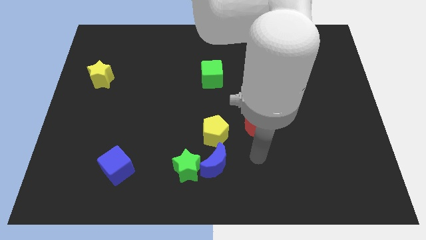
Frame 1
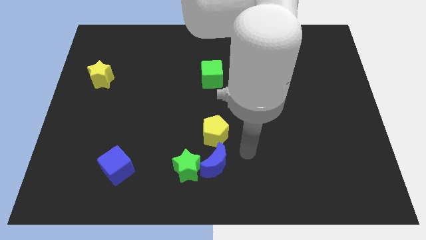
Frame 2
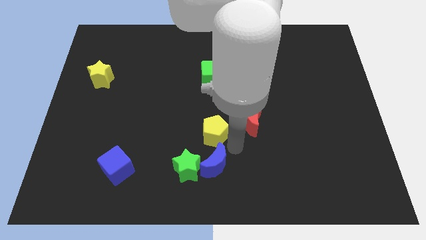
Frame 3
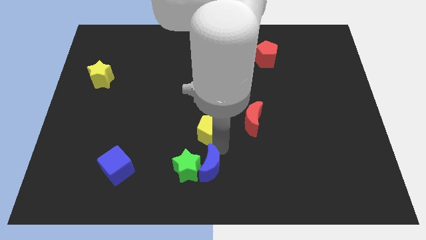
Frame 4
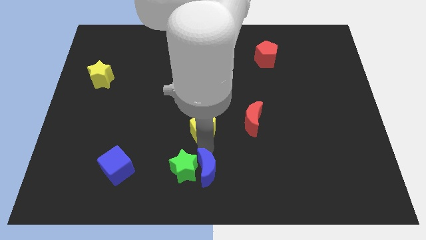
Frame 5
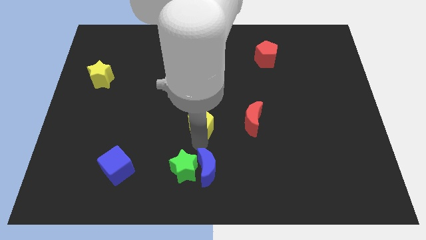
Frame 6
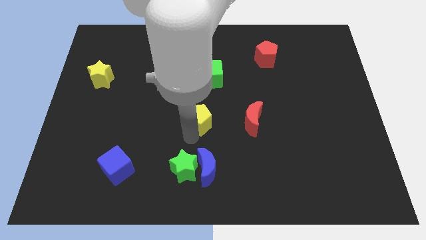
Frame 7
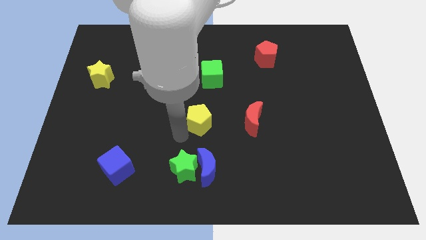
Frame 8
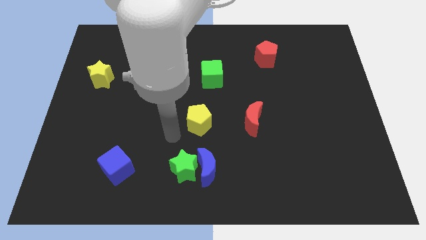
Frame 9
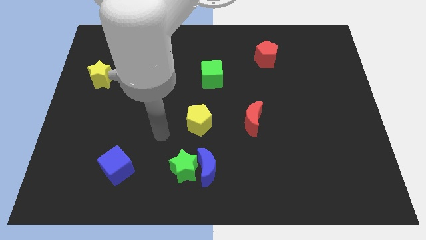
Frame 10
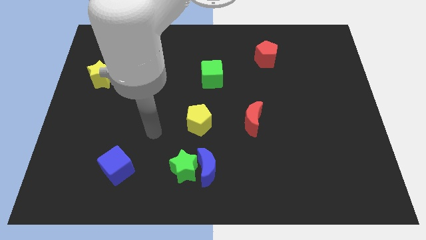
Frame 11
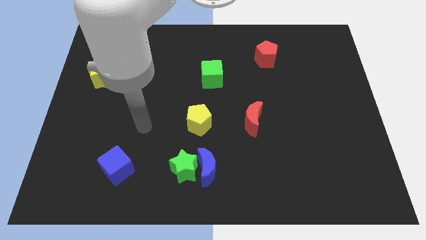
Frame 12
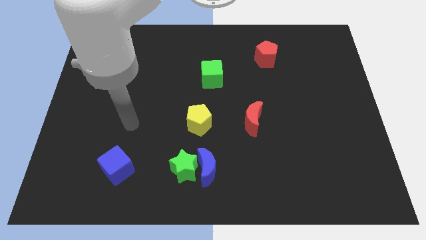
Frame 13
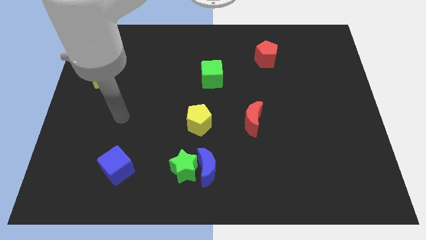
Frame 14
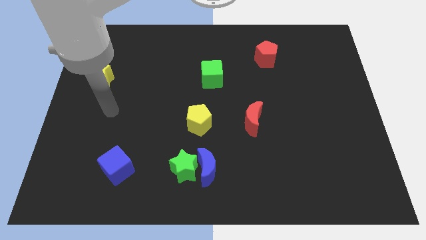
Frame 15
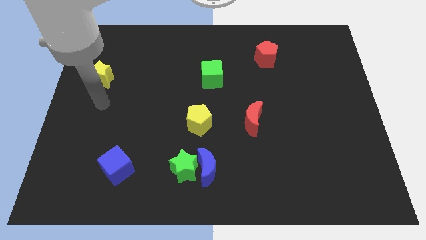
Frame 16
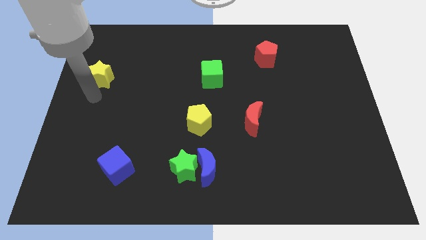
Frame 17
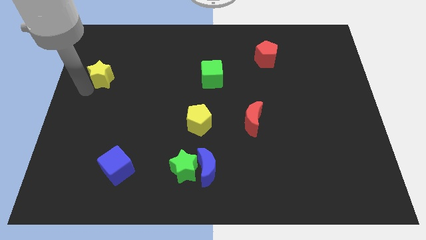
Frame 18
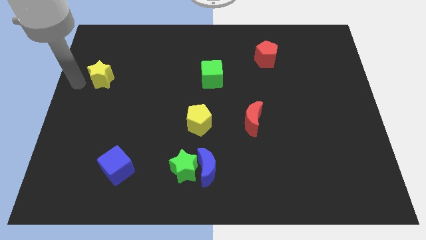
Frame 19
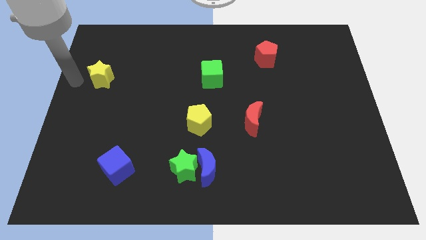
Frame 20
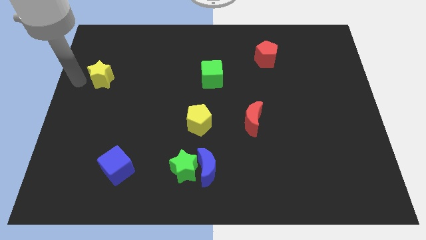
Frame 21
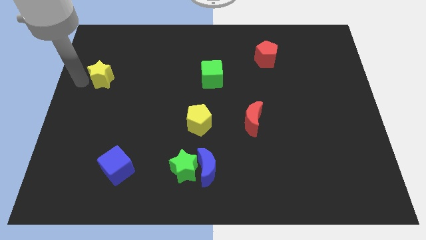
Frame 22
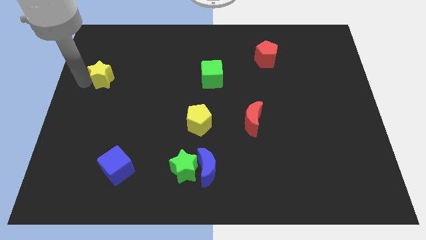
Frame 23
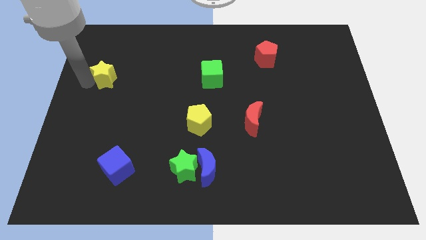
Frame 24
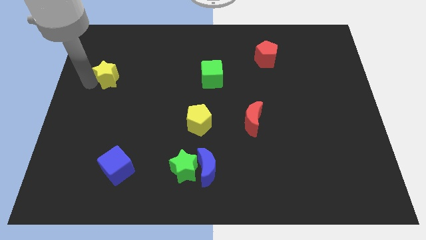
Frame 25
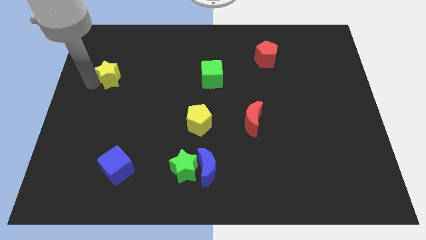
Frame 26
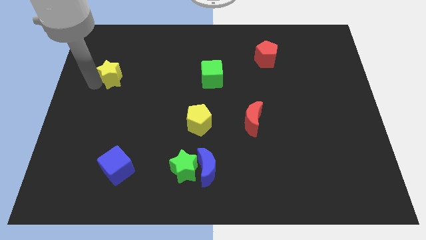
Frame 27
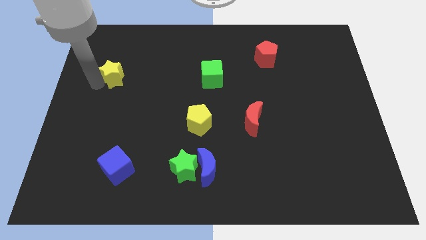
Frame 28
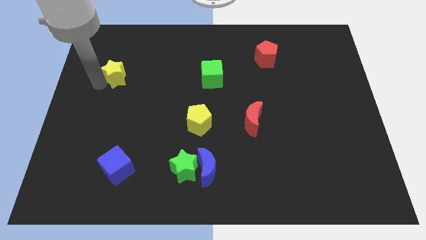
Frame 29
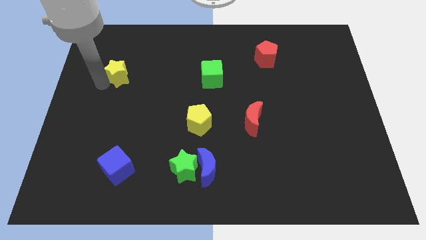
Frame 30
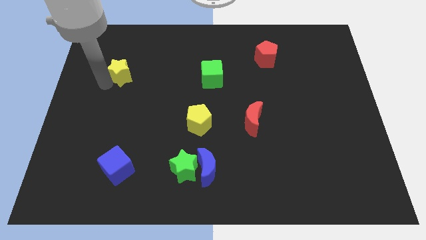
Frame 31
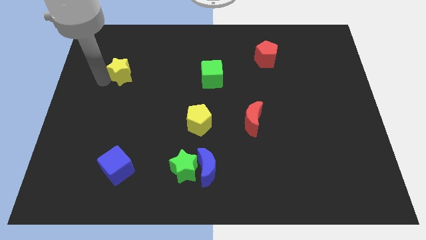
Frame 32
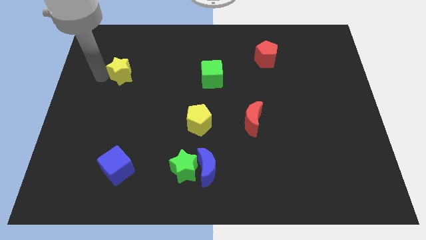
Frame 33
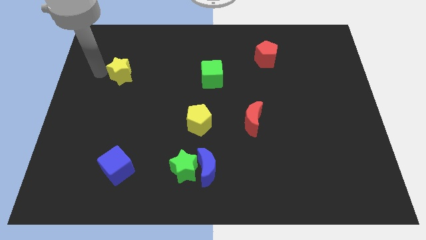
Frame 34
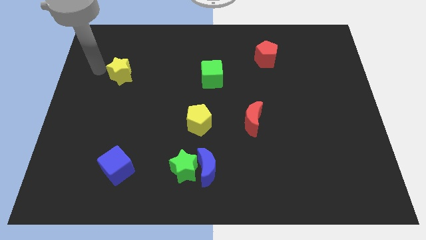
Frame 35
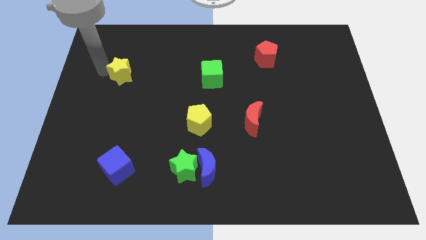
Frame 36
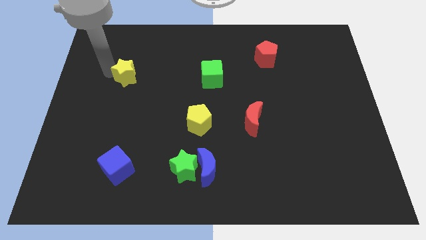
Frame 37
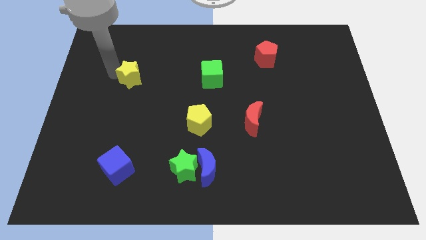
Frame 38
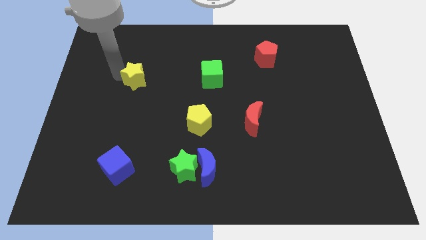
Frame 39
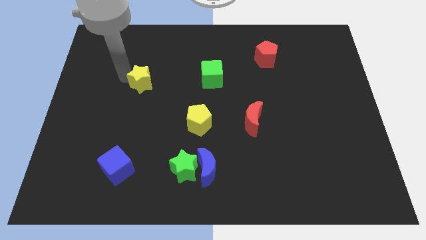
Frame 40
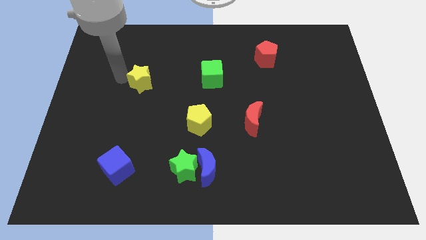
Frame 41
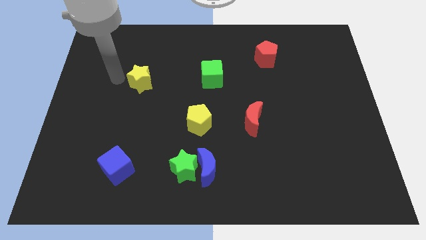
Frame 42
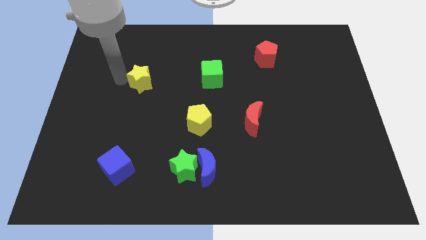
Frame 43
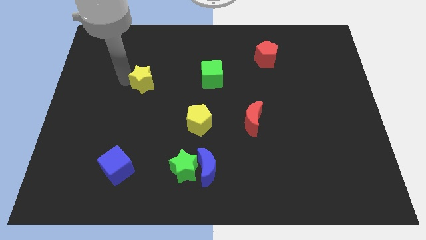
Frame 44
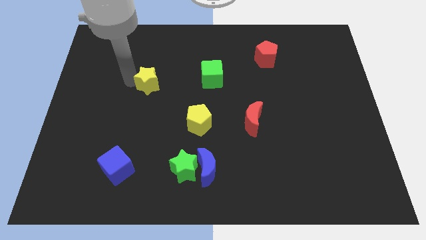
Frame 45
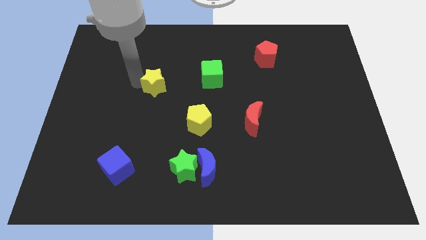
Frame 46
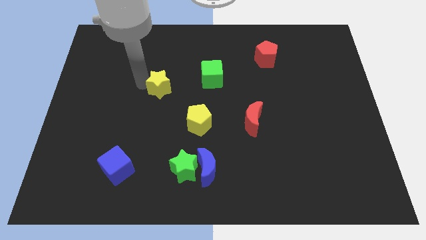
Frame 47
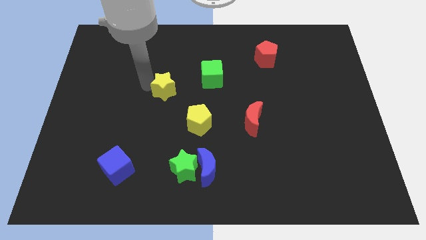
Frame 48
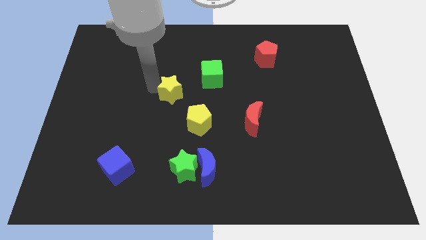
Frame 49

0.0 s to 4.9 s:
slide the yellow star to the bottom left side of the green cube

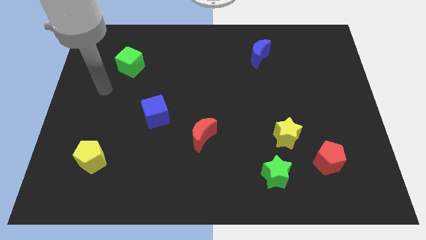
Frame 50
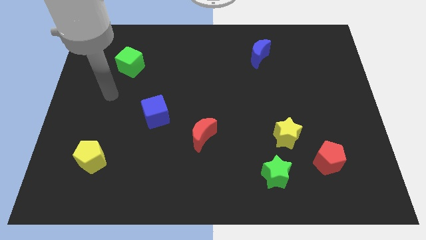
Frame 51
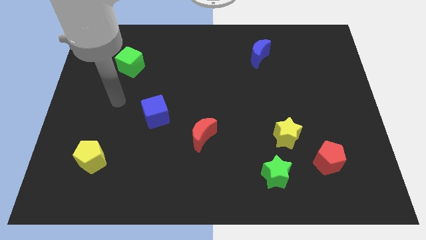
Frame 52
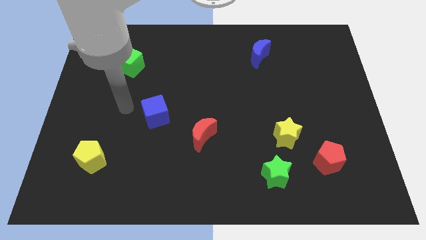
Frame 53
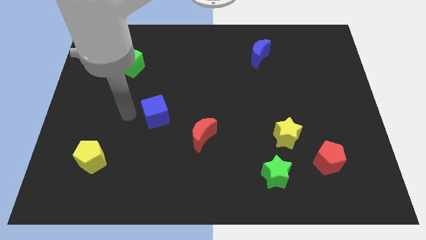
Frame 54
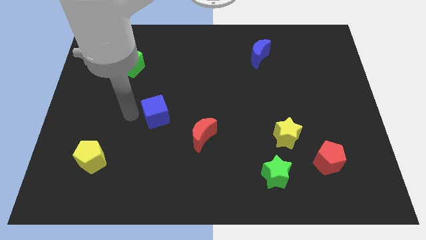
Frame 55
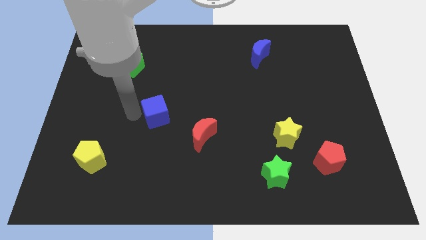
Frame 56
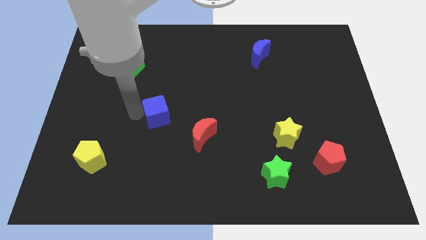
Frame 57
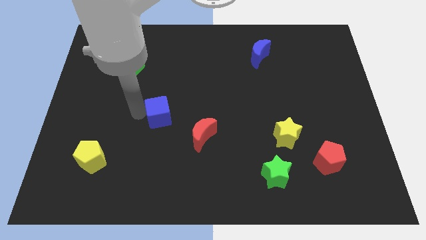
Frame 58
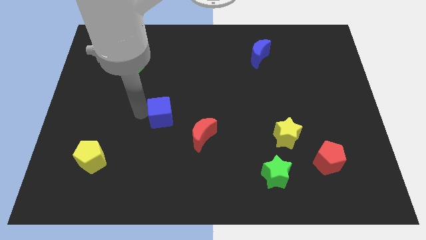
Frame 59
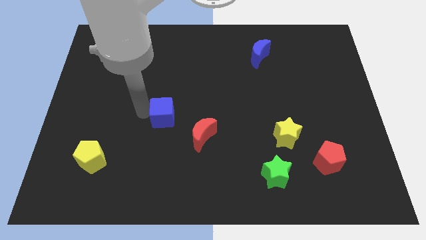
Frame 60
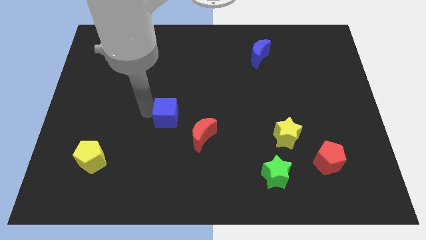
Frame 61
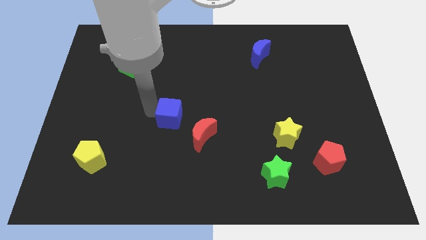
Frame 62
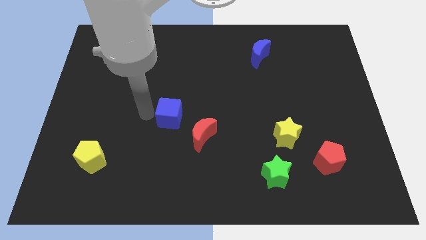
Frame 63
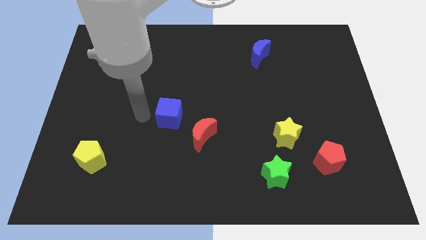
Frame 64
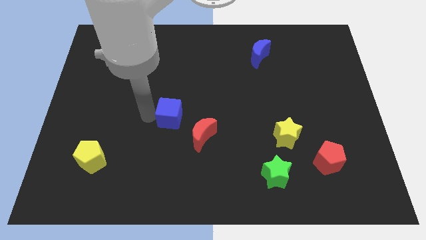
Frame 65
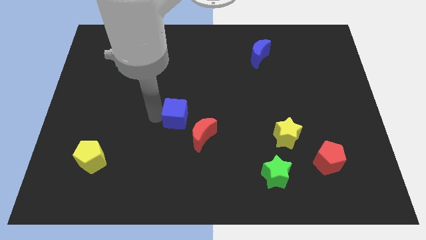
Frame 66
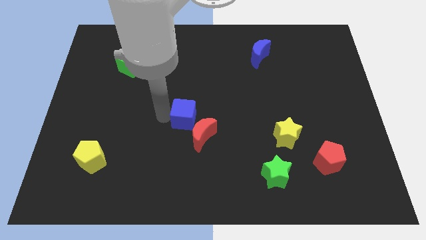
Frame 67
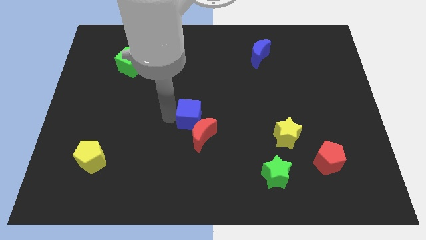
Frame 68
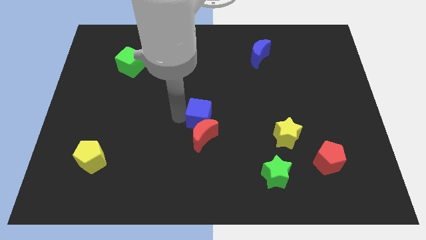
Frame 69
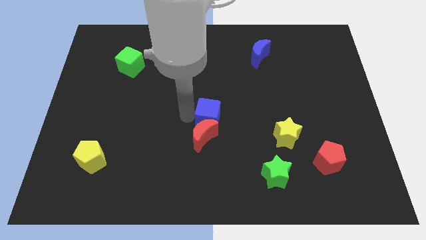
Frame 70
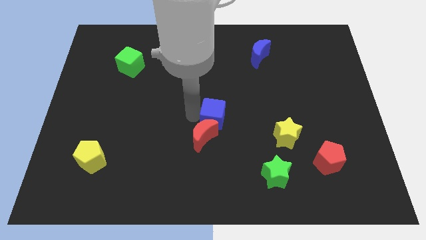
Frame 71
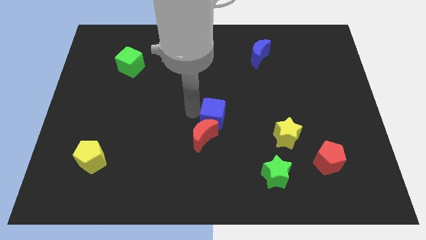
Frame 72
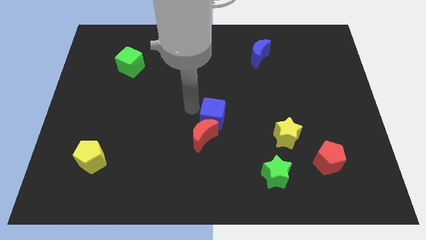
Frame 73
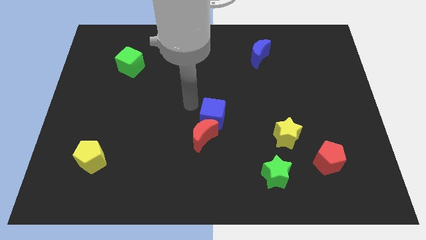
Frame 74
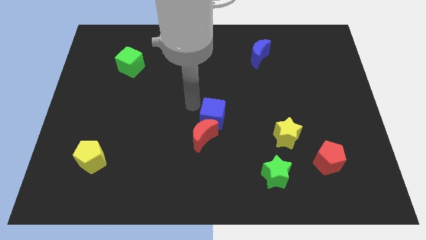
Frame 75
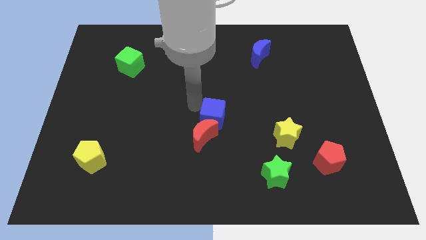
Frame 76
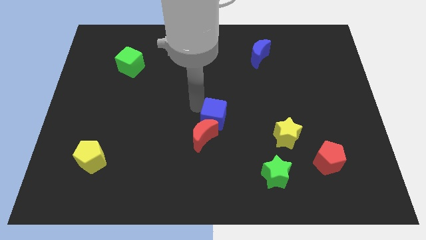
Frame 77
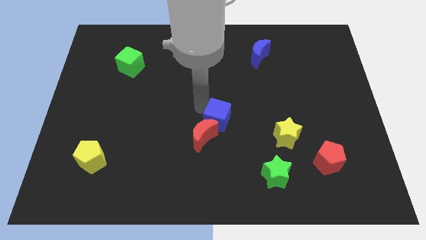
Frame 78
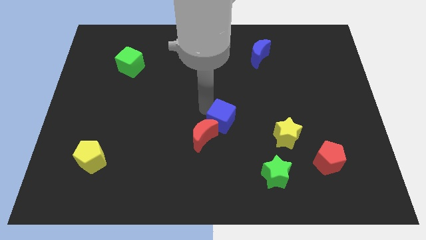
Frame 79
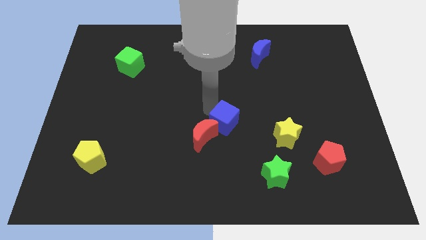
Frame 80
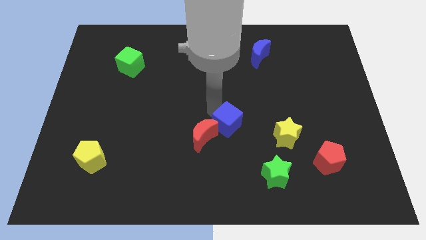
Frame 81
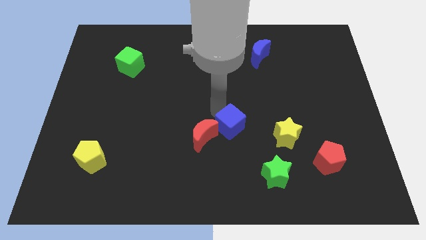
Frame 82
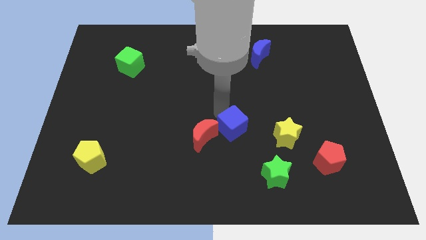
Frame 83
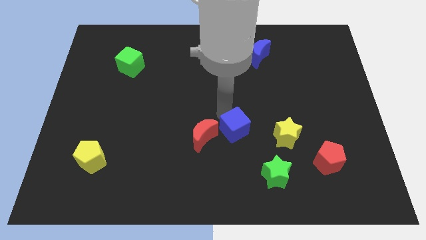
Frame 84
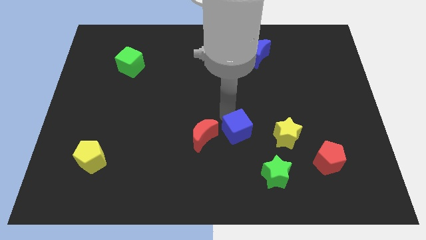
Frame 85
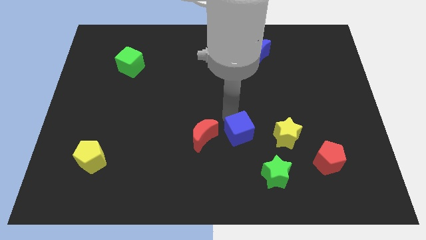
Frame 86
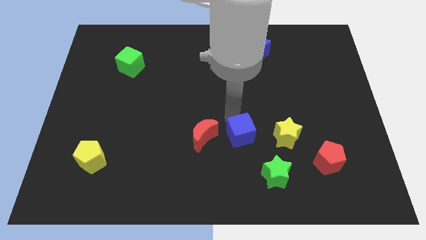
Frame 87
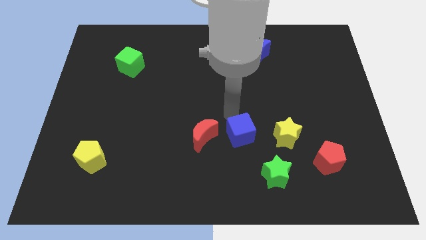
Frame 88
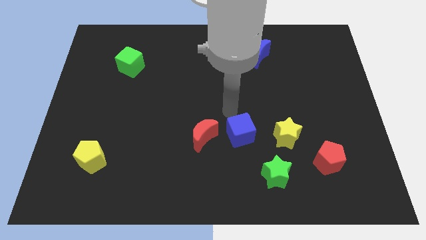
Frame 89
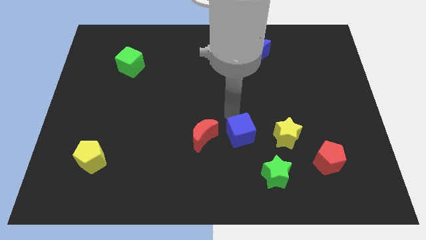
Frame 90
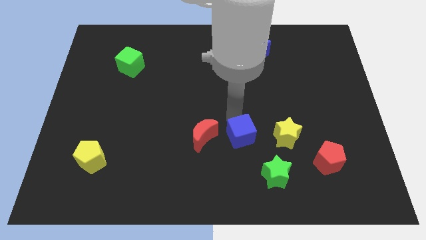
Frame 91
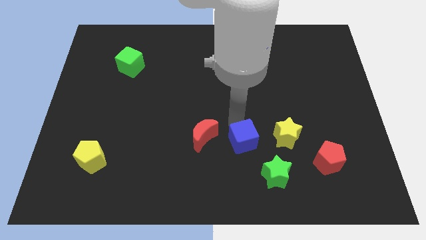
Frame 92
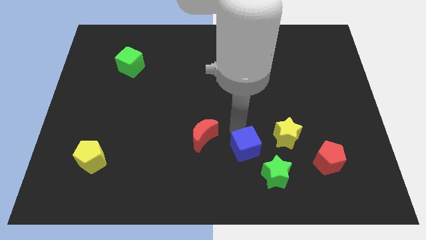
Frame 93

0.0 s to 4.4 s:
move the blue cube to the bottom left side of the yellow star
